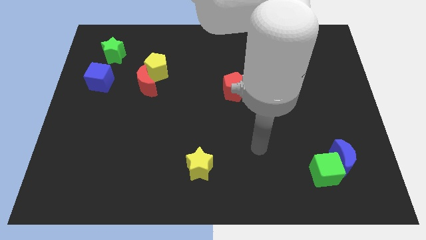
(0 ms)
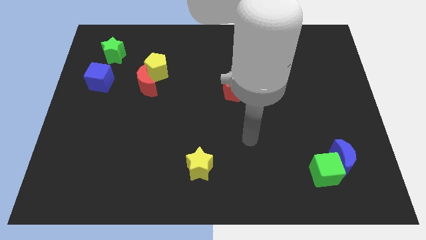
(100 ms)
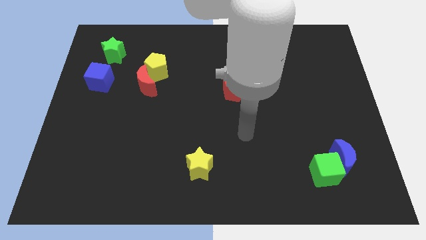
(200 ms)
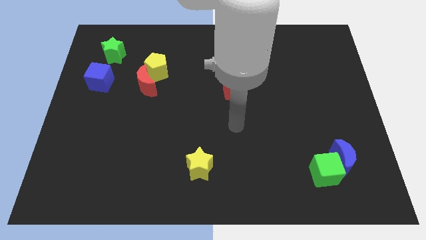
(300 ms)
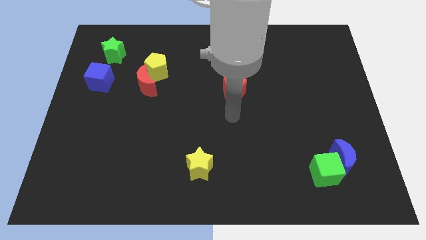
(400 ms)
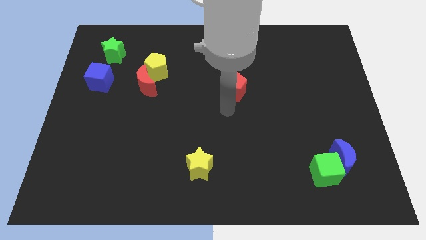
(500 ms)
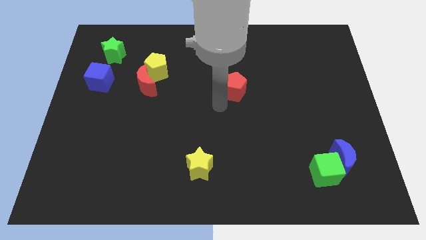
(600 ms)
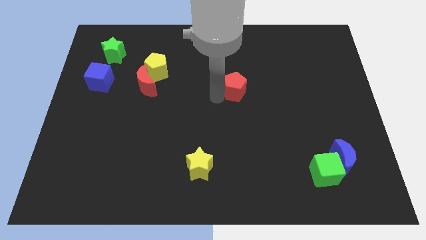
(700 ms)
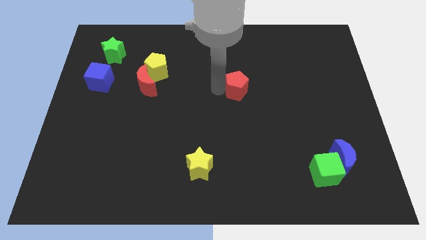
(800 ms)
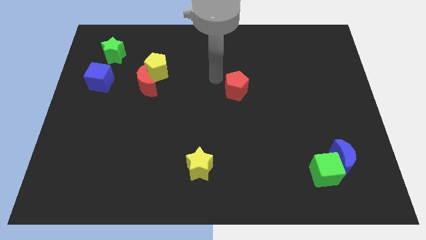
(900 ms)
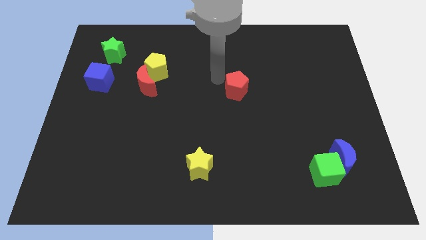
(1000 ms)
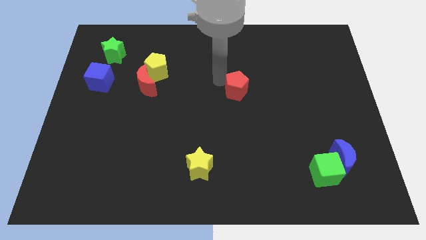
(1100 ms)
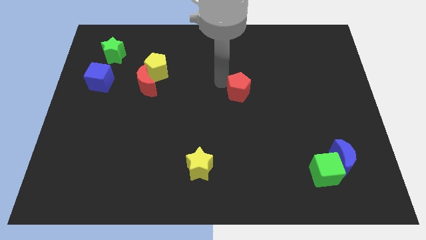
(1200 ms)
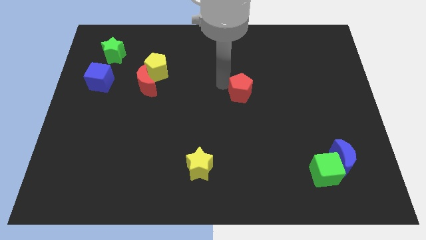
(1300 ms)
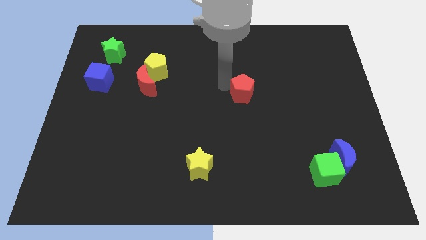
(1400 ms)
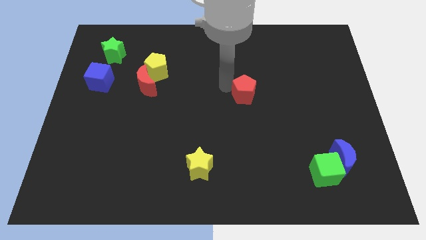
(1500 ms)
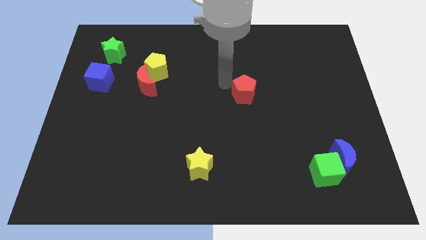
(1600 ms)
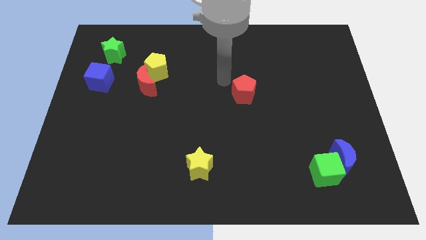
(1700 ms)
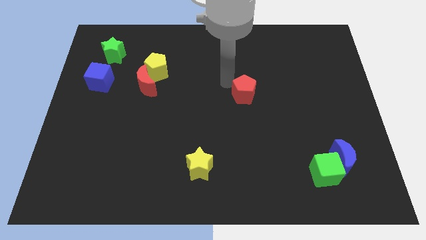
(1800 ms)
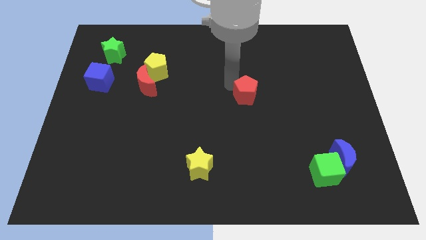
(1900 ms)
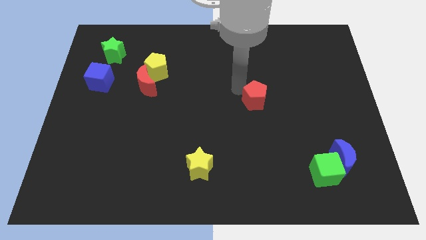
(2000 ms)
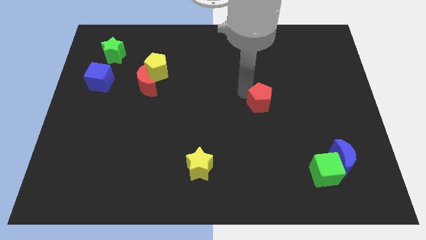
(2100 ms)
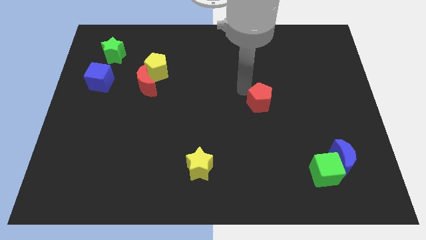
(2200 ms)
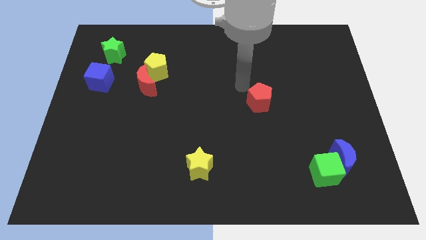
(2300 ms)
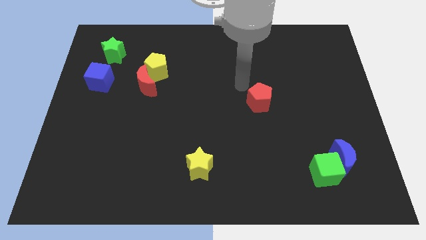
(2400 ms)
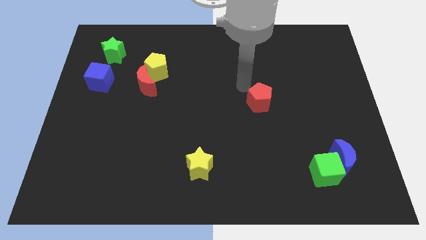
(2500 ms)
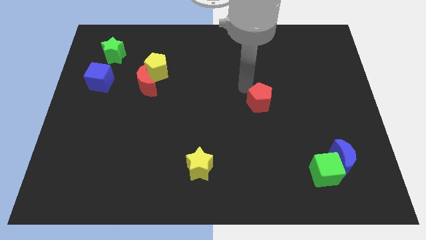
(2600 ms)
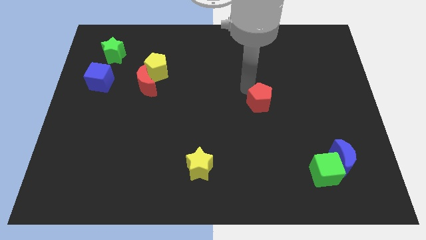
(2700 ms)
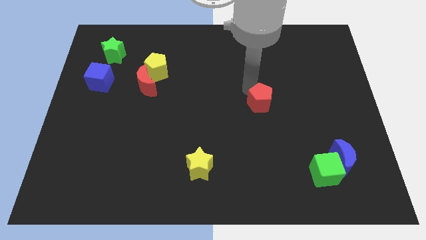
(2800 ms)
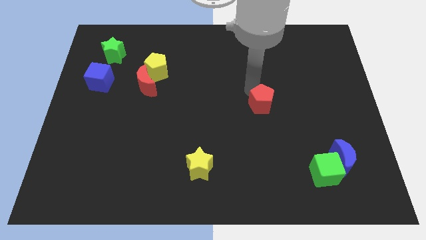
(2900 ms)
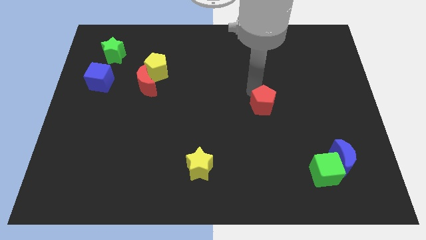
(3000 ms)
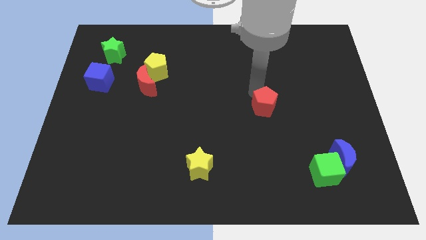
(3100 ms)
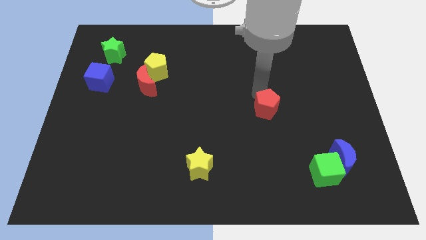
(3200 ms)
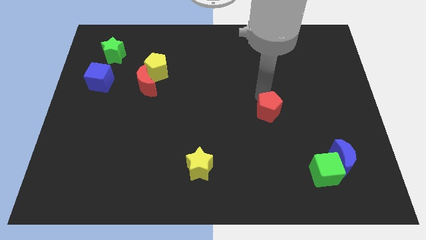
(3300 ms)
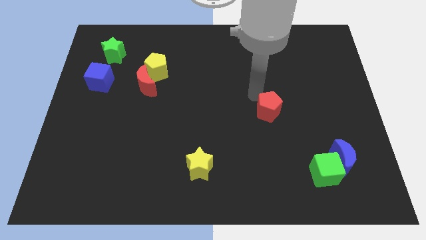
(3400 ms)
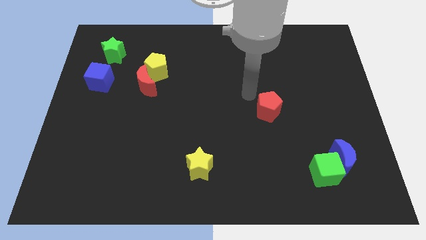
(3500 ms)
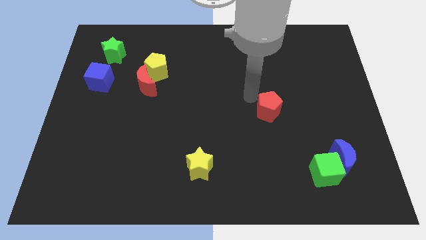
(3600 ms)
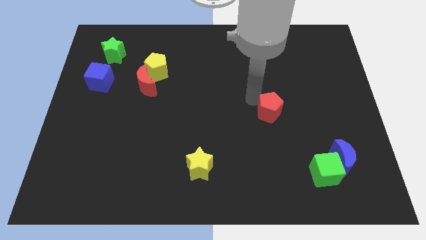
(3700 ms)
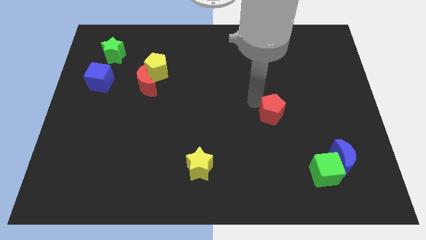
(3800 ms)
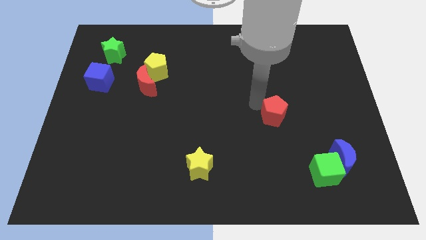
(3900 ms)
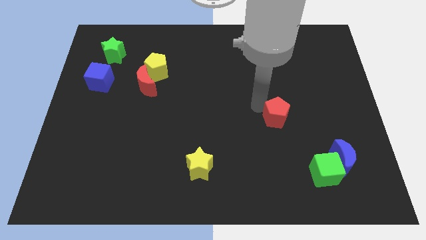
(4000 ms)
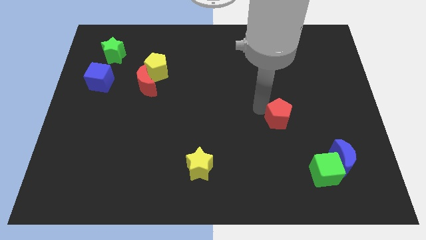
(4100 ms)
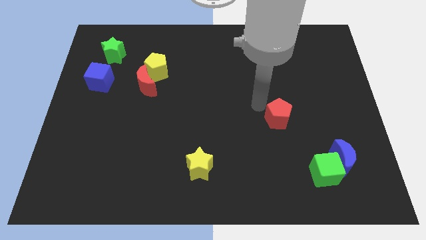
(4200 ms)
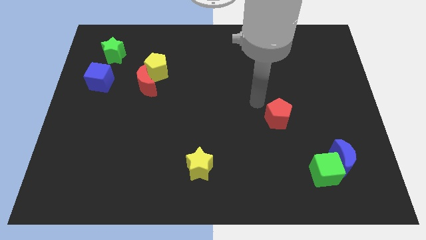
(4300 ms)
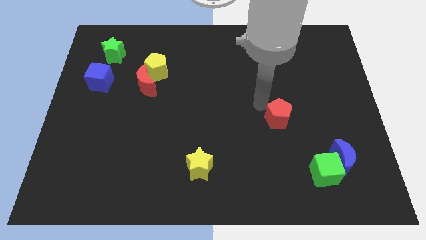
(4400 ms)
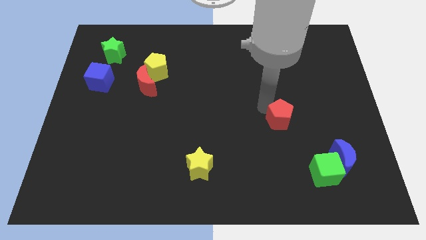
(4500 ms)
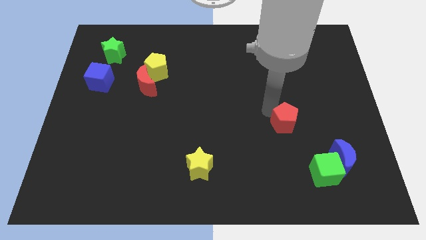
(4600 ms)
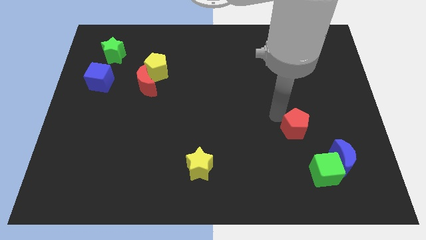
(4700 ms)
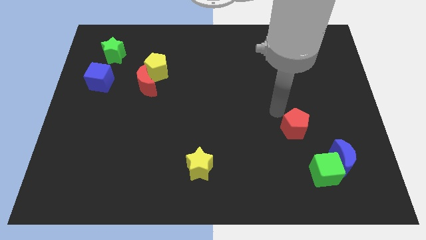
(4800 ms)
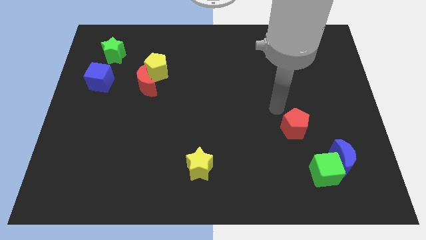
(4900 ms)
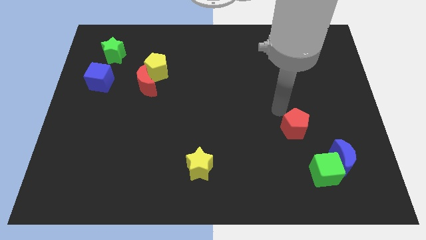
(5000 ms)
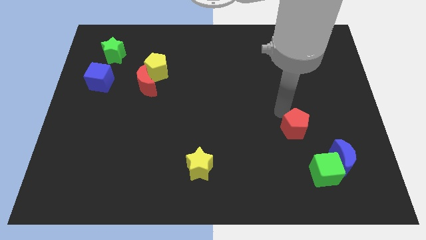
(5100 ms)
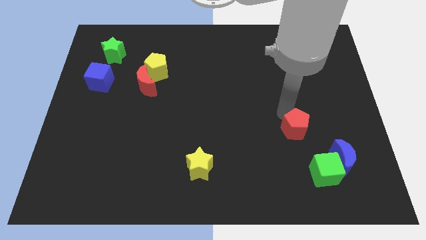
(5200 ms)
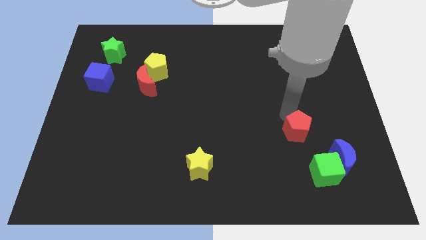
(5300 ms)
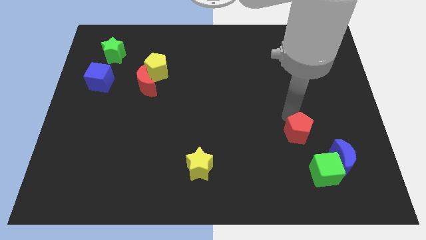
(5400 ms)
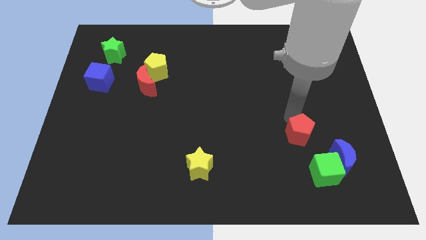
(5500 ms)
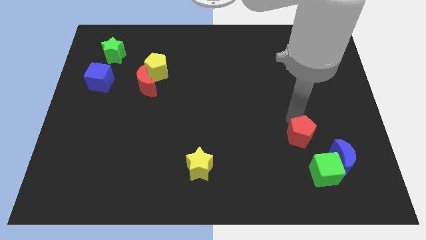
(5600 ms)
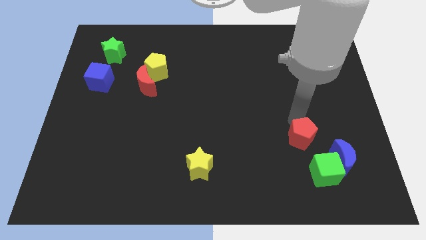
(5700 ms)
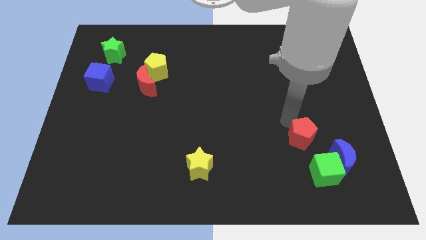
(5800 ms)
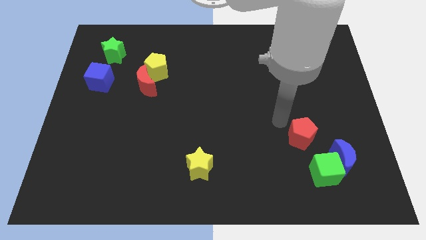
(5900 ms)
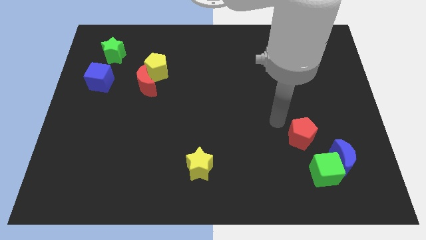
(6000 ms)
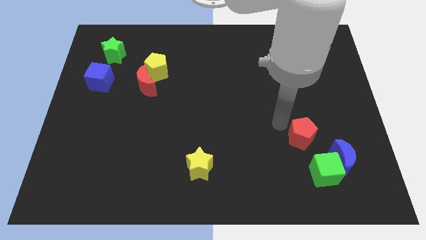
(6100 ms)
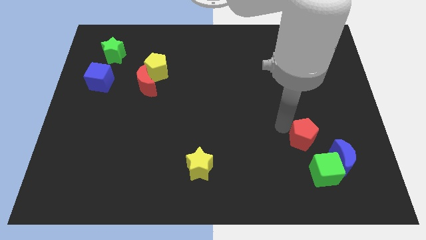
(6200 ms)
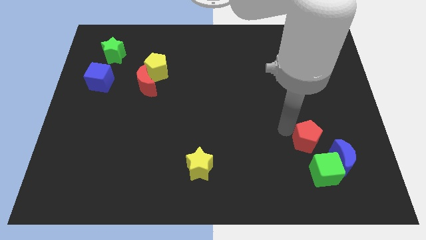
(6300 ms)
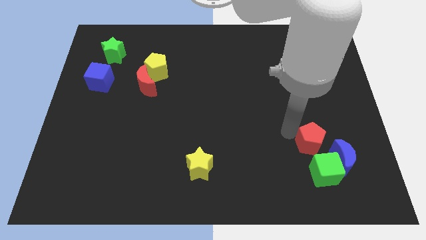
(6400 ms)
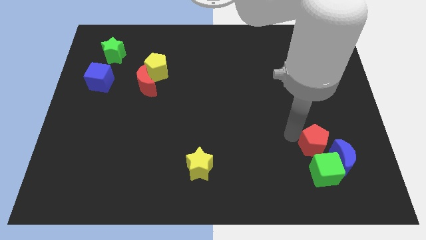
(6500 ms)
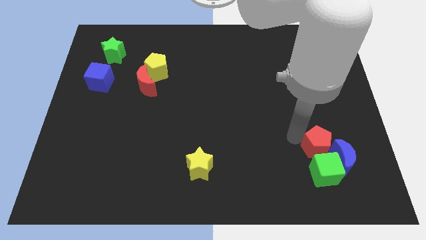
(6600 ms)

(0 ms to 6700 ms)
push the red pentagon towards the blue moon
